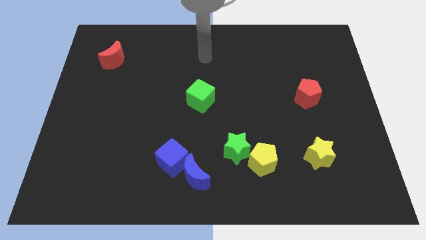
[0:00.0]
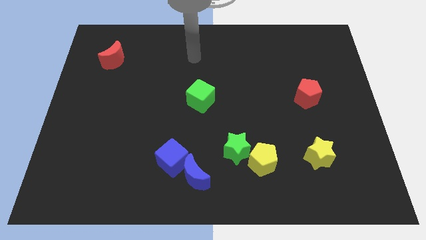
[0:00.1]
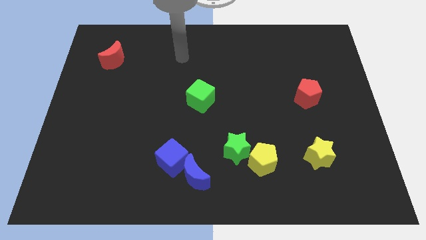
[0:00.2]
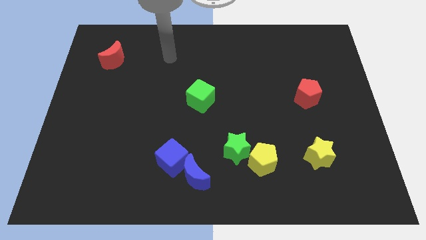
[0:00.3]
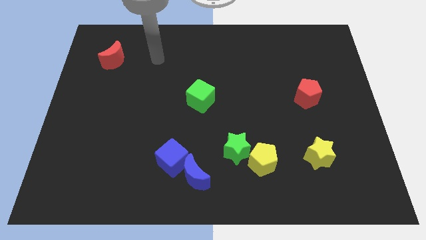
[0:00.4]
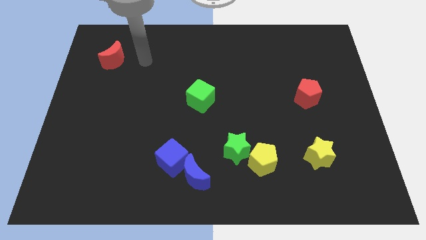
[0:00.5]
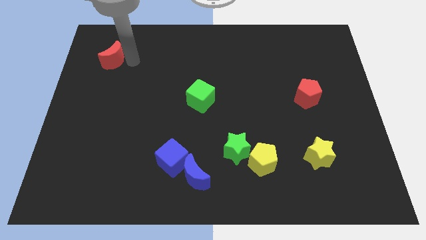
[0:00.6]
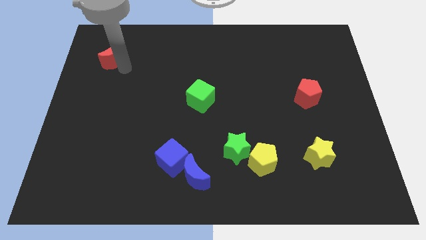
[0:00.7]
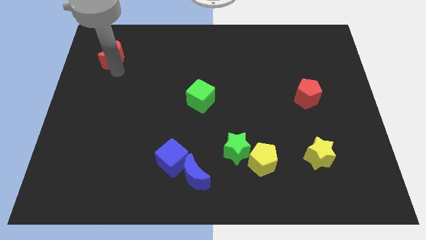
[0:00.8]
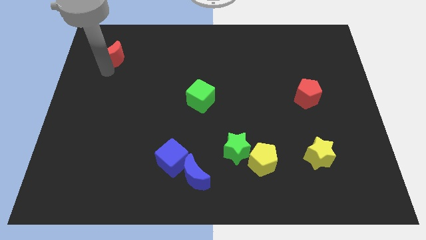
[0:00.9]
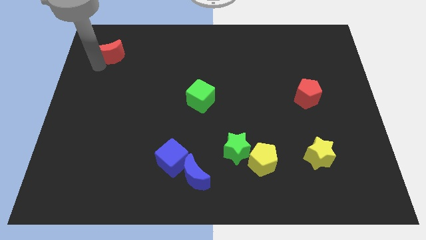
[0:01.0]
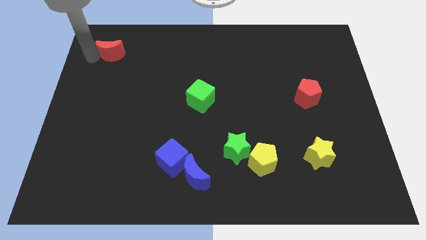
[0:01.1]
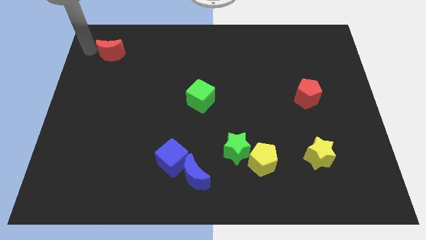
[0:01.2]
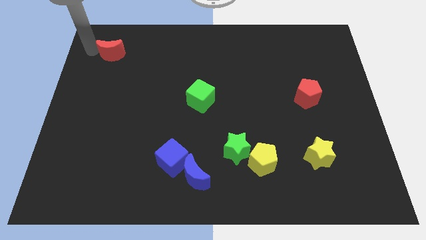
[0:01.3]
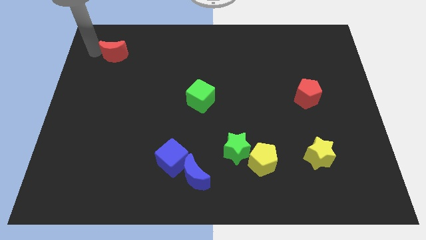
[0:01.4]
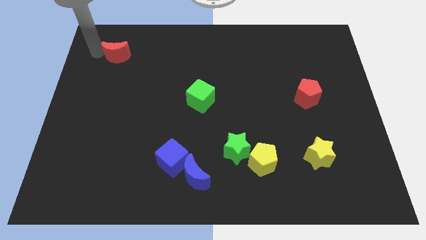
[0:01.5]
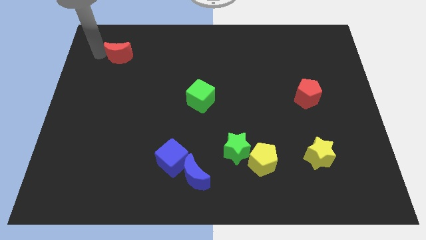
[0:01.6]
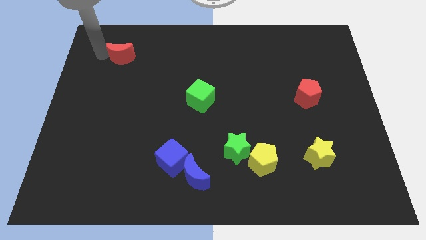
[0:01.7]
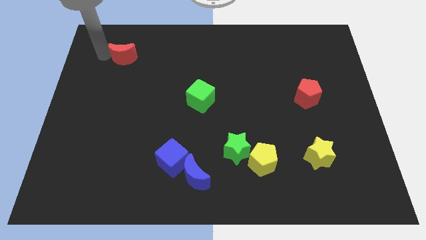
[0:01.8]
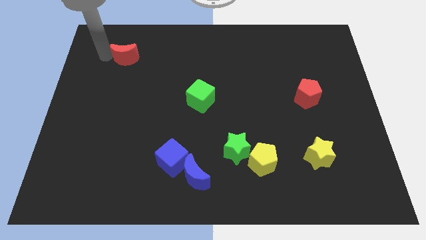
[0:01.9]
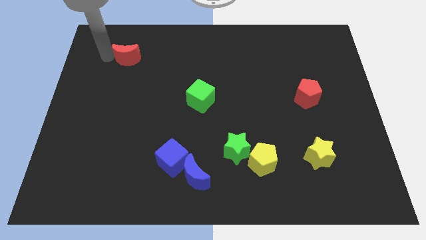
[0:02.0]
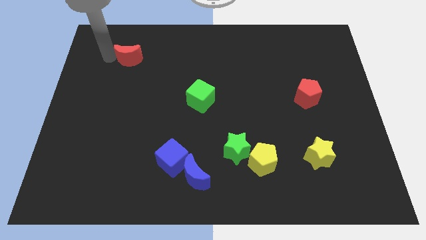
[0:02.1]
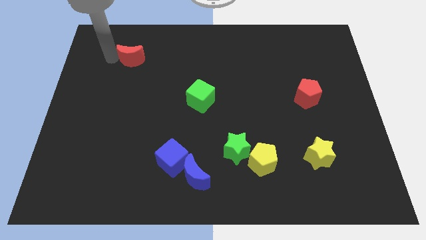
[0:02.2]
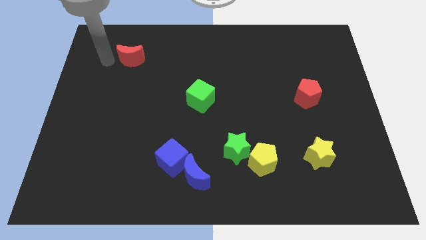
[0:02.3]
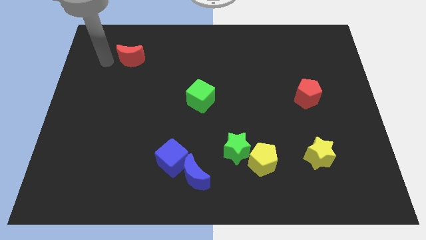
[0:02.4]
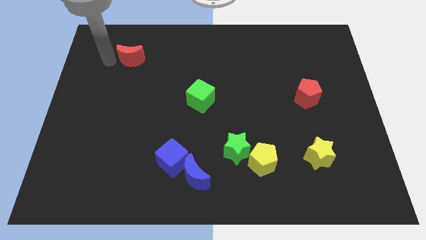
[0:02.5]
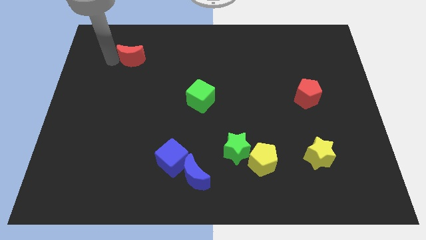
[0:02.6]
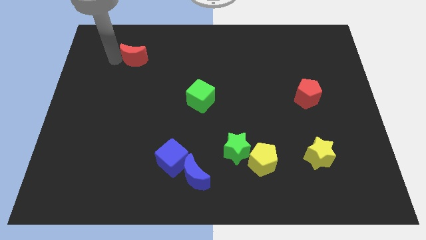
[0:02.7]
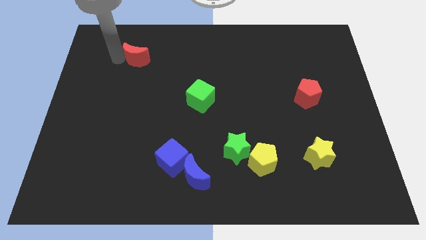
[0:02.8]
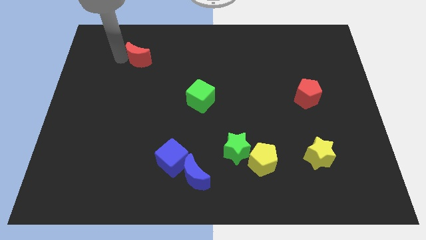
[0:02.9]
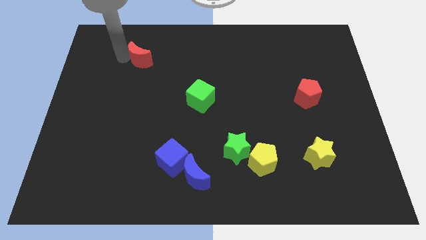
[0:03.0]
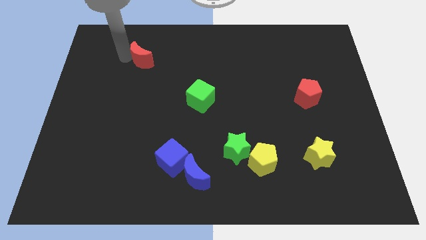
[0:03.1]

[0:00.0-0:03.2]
slightly push the red moon to the right

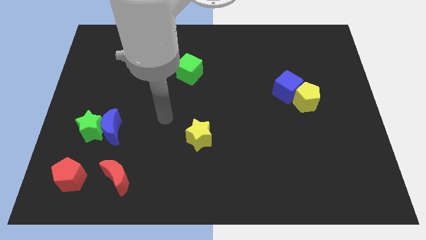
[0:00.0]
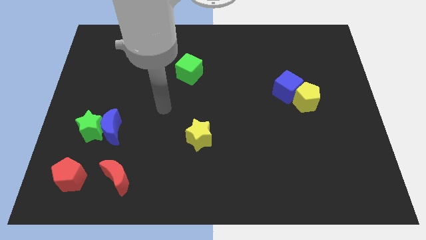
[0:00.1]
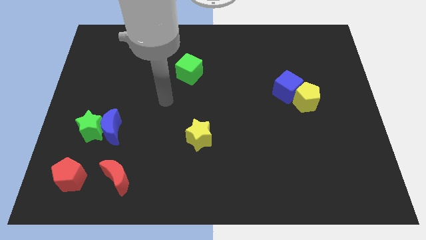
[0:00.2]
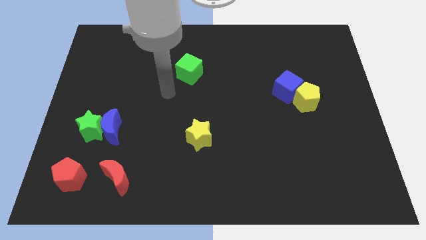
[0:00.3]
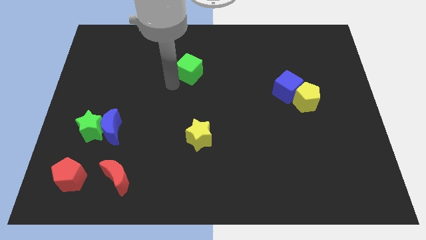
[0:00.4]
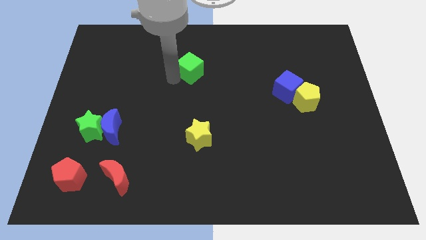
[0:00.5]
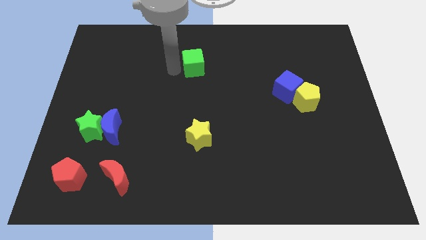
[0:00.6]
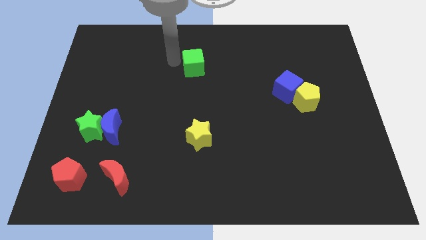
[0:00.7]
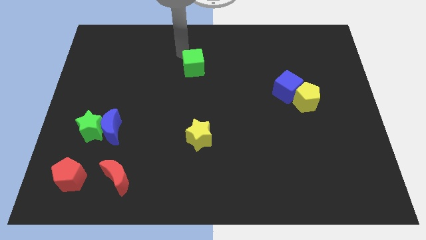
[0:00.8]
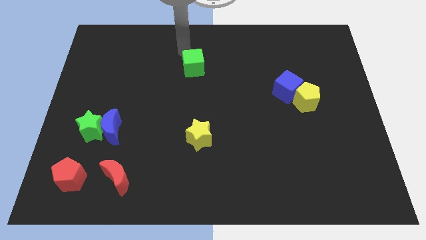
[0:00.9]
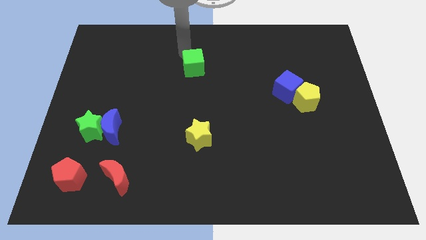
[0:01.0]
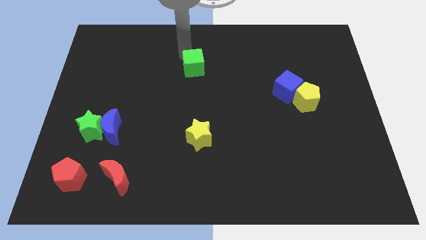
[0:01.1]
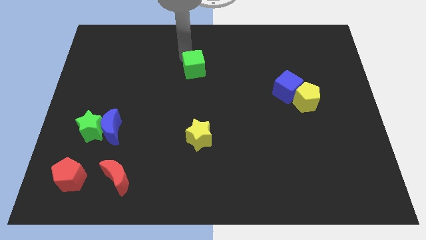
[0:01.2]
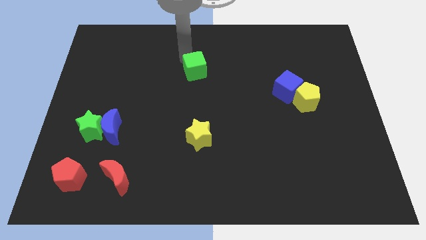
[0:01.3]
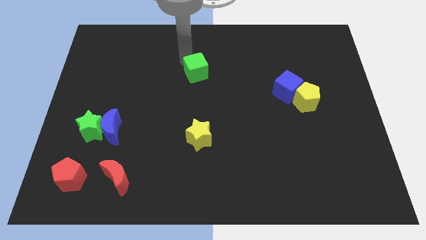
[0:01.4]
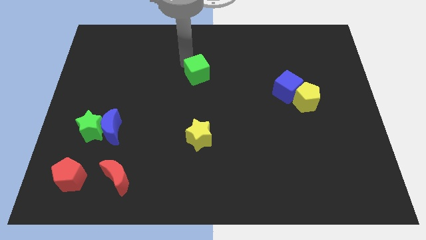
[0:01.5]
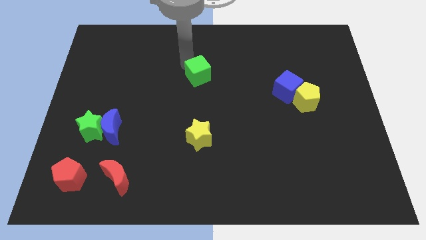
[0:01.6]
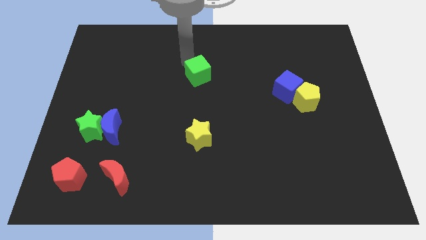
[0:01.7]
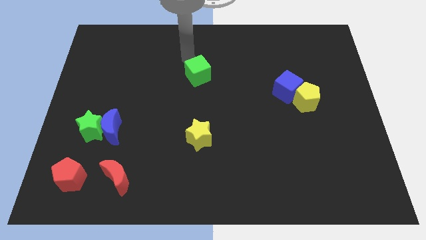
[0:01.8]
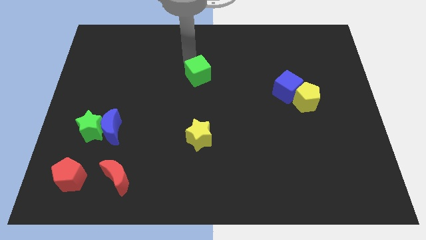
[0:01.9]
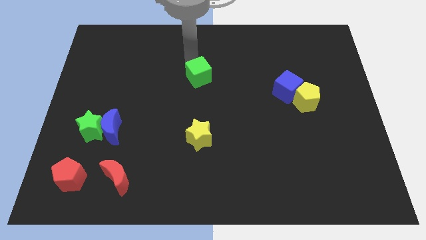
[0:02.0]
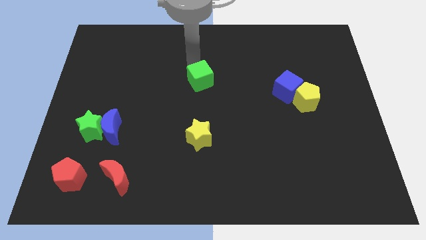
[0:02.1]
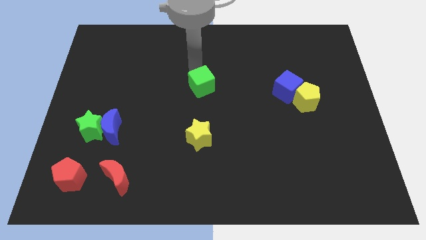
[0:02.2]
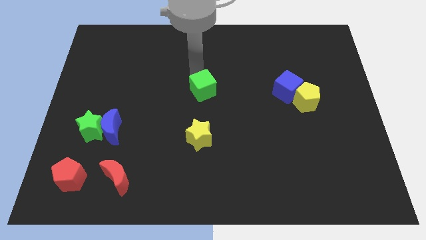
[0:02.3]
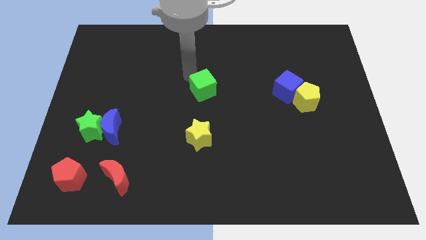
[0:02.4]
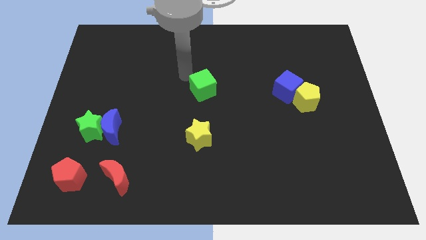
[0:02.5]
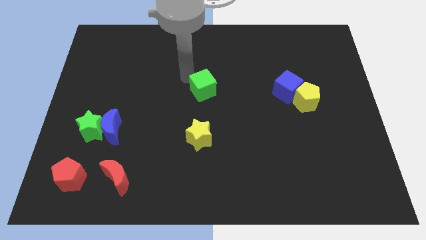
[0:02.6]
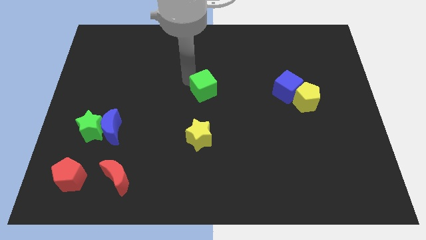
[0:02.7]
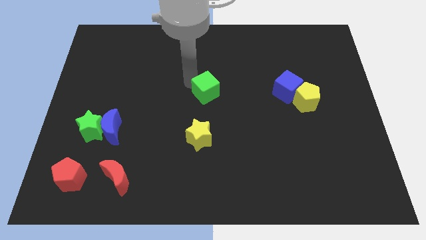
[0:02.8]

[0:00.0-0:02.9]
slightly slide the green cube down and right

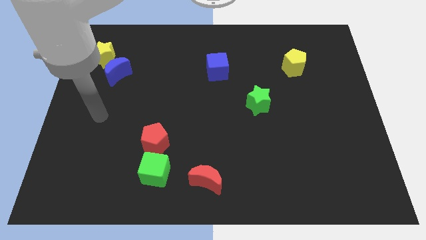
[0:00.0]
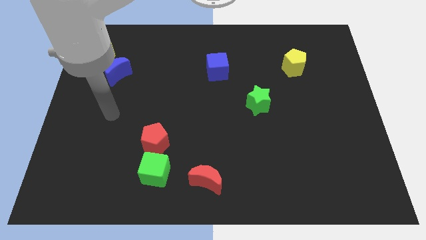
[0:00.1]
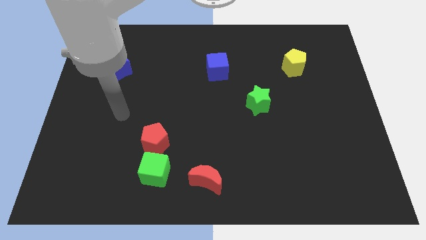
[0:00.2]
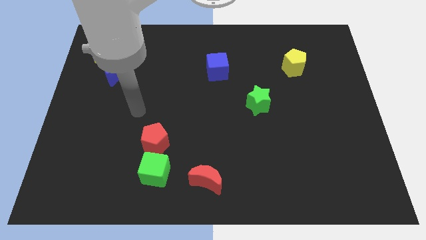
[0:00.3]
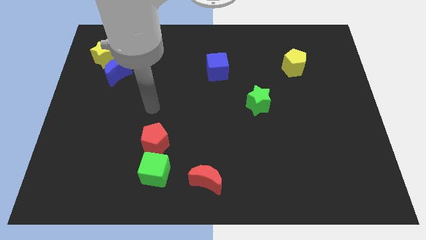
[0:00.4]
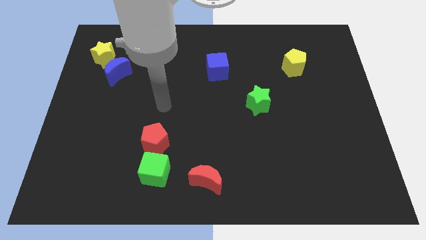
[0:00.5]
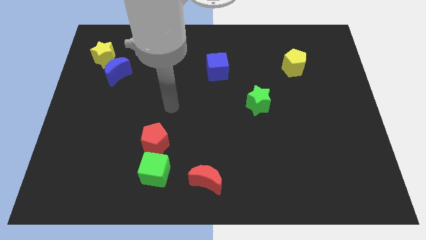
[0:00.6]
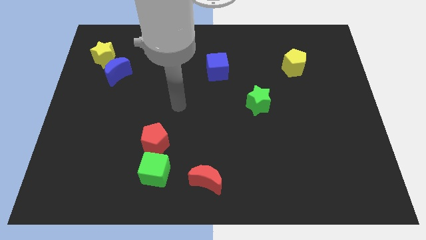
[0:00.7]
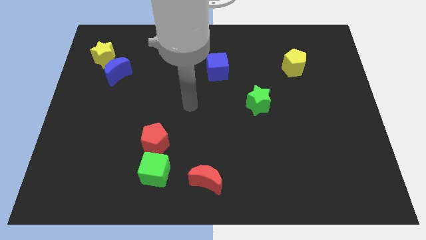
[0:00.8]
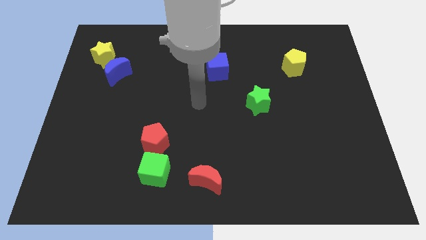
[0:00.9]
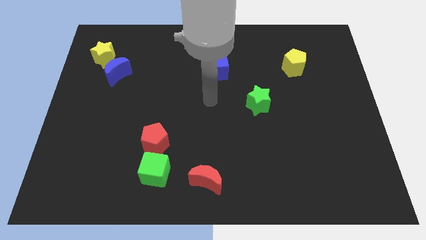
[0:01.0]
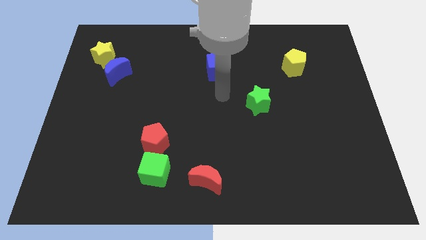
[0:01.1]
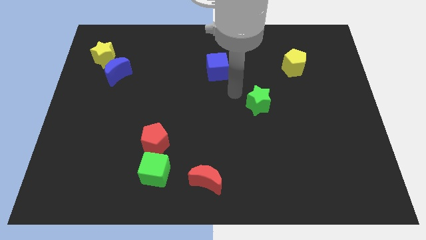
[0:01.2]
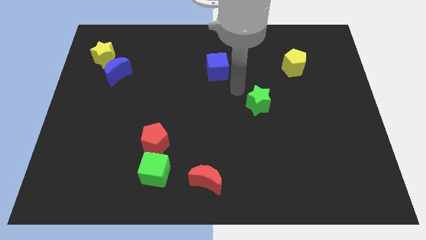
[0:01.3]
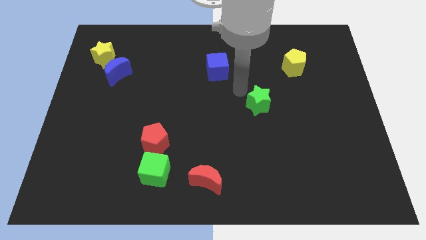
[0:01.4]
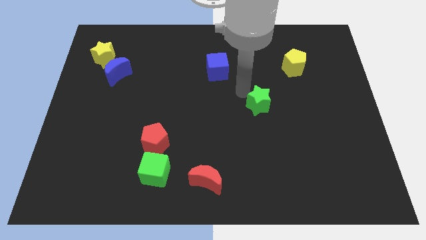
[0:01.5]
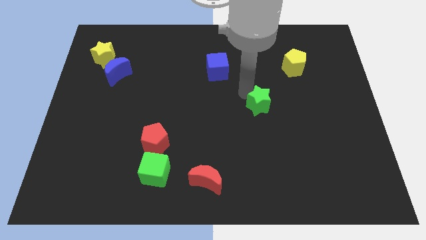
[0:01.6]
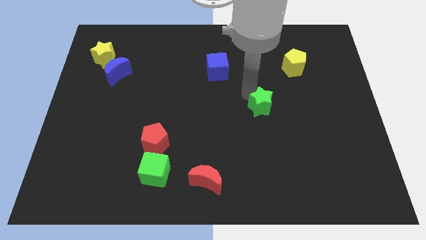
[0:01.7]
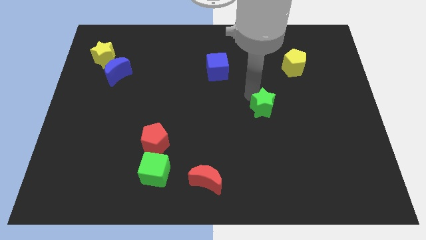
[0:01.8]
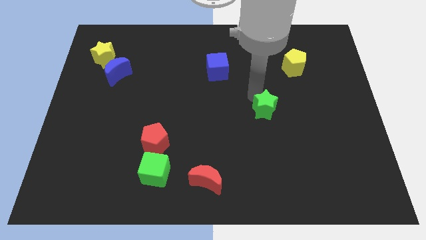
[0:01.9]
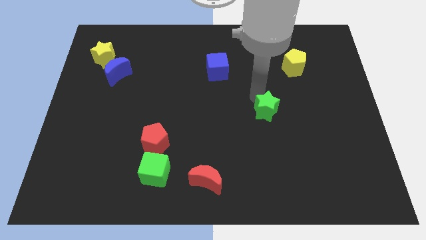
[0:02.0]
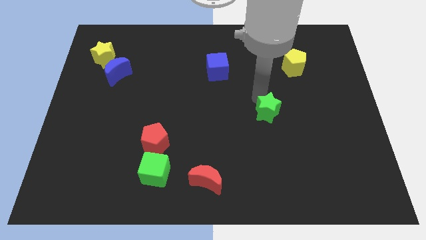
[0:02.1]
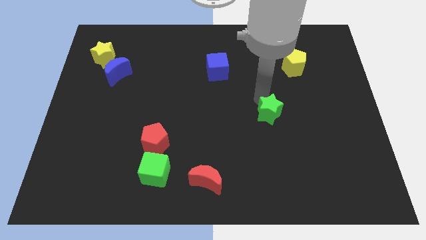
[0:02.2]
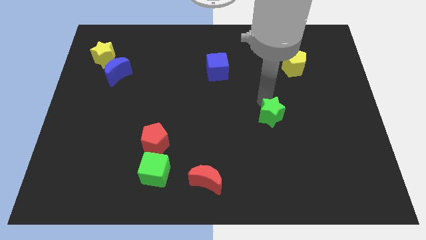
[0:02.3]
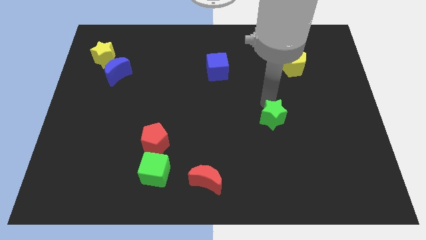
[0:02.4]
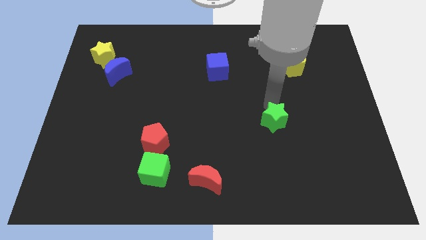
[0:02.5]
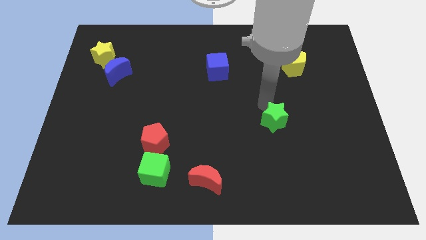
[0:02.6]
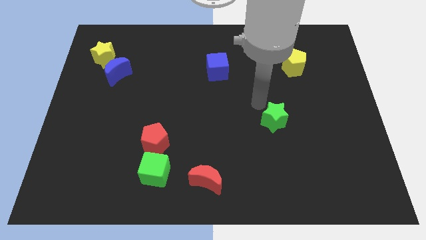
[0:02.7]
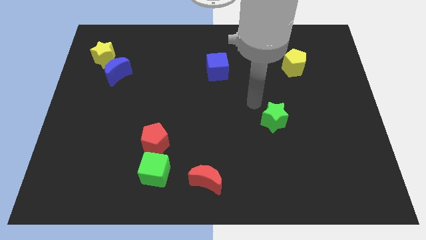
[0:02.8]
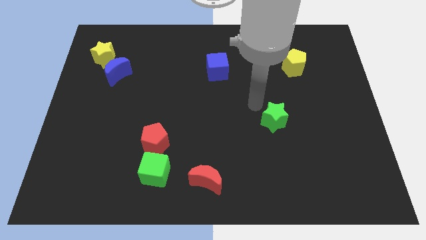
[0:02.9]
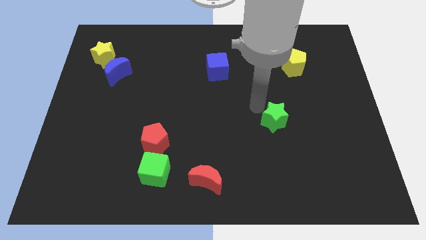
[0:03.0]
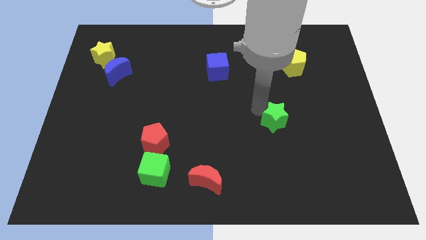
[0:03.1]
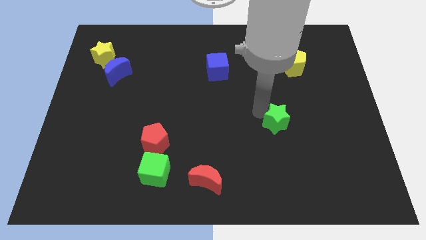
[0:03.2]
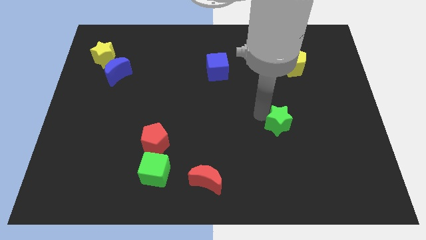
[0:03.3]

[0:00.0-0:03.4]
slide the green star down and to the right diagonally a bit
